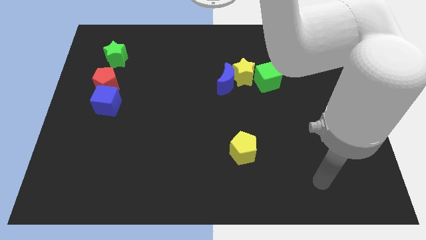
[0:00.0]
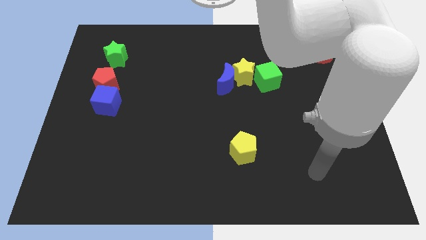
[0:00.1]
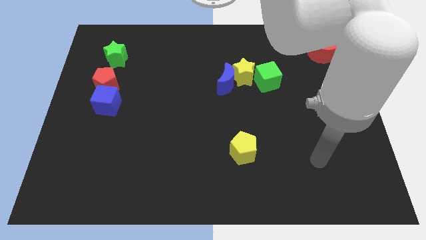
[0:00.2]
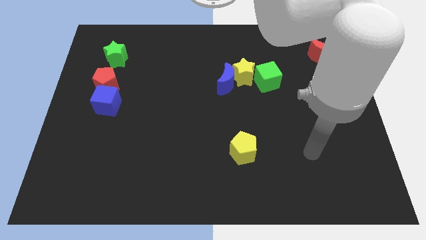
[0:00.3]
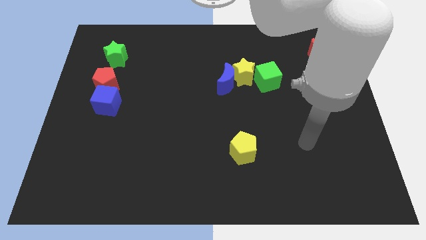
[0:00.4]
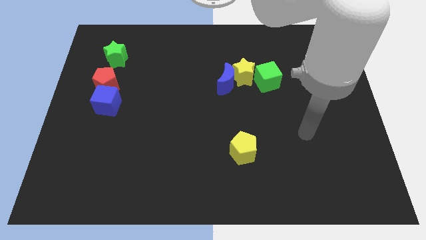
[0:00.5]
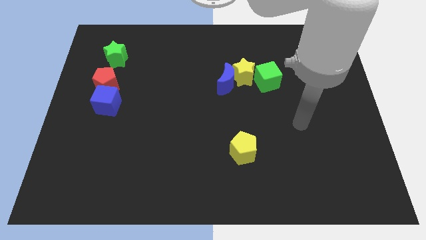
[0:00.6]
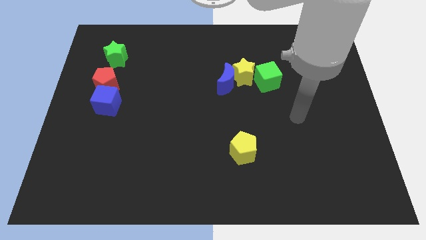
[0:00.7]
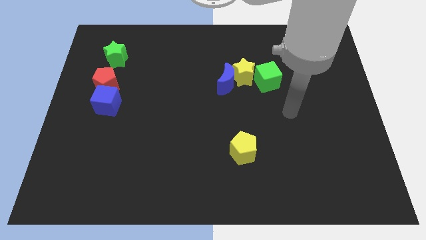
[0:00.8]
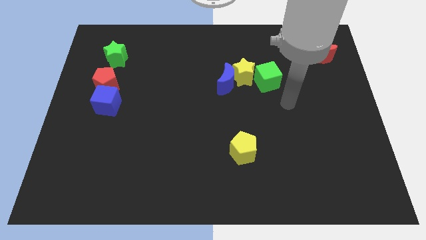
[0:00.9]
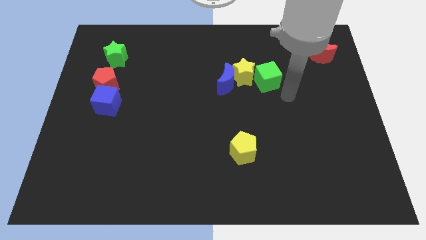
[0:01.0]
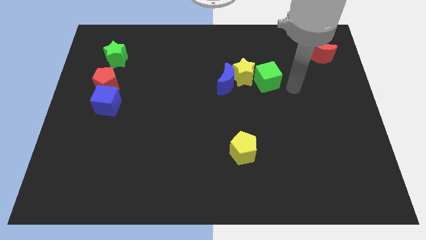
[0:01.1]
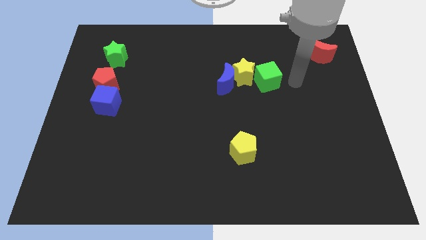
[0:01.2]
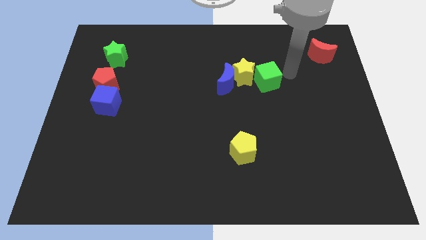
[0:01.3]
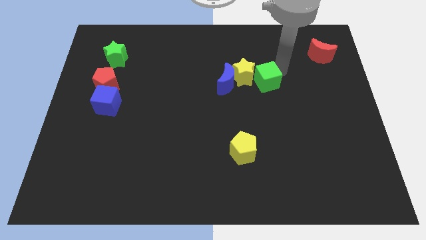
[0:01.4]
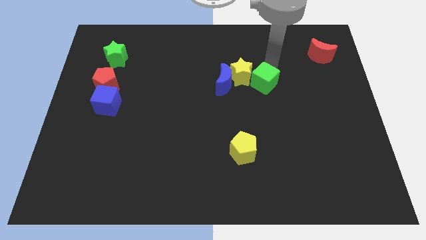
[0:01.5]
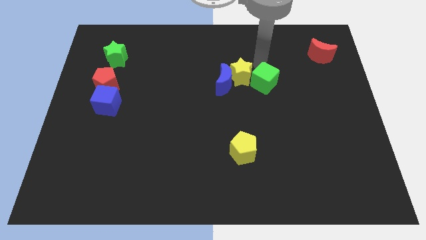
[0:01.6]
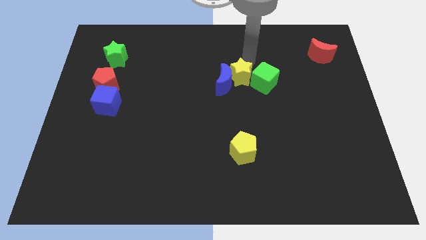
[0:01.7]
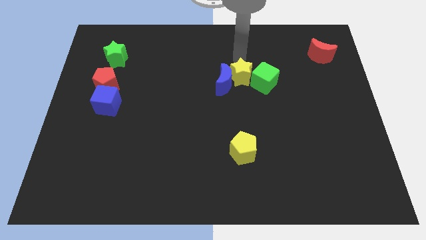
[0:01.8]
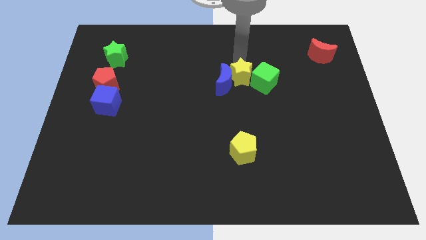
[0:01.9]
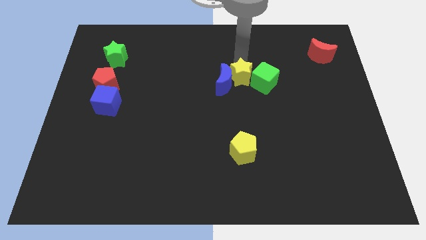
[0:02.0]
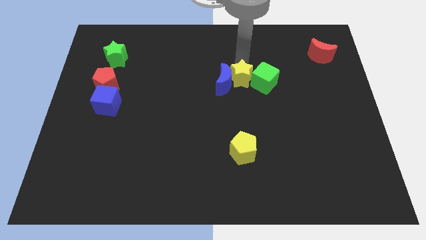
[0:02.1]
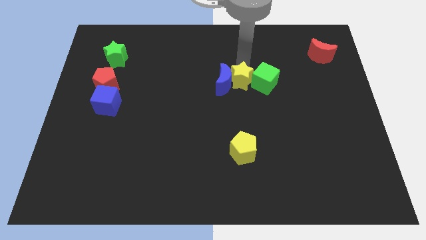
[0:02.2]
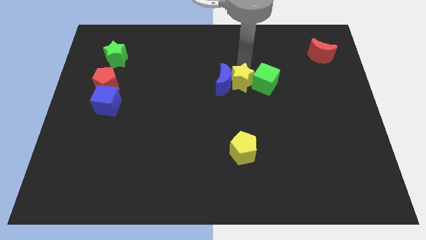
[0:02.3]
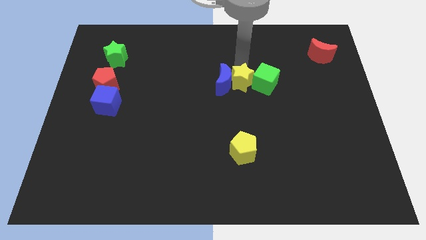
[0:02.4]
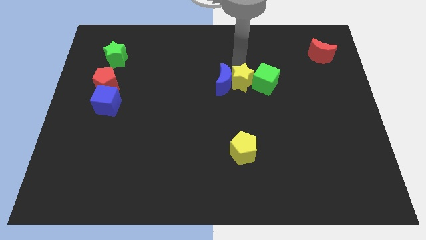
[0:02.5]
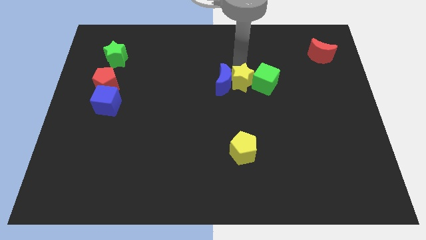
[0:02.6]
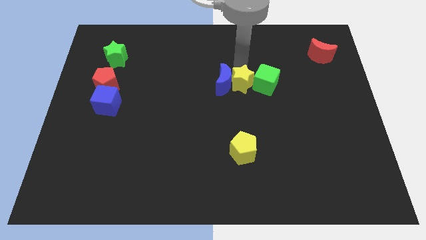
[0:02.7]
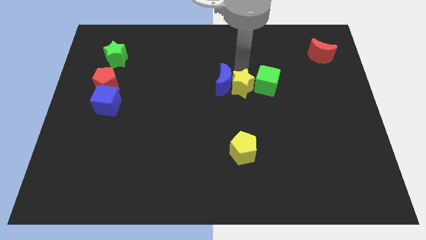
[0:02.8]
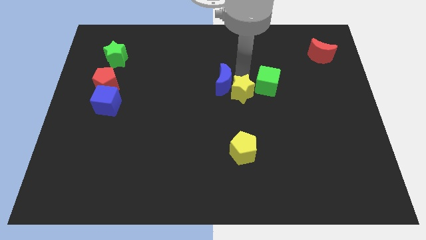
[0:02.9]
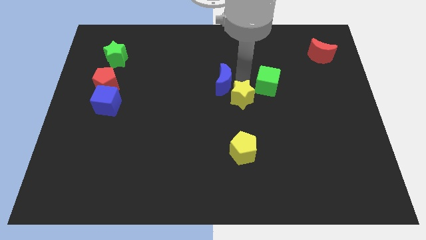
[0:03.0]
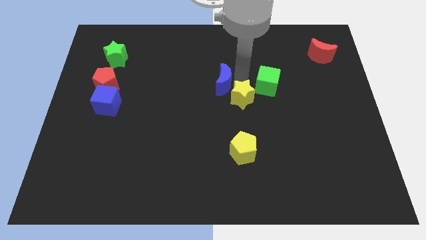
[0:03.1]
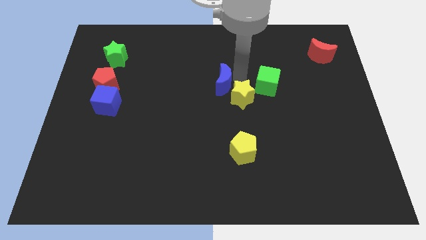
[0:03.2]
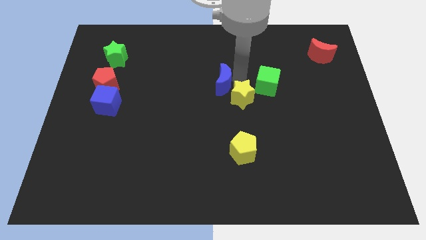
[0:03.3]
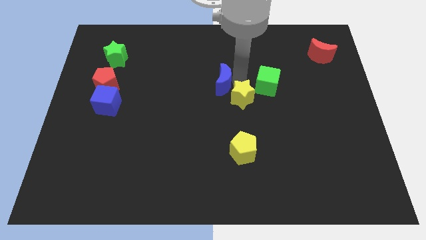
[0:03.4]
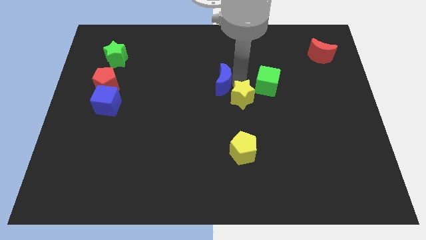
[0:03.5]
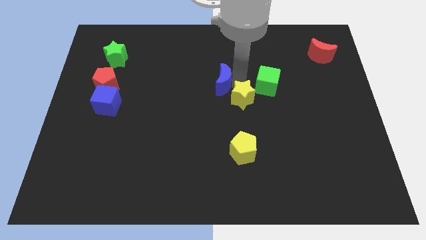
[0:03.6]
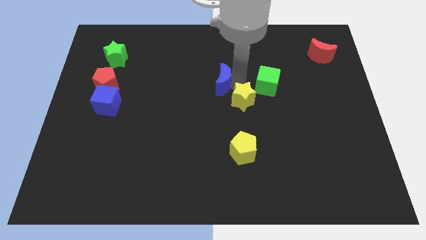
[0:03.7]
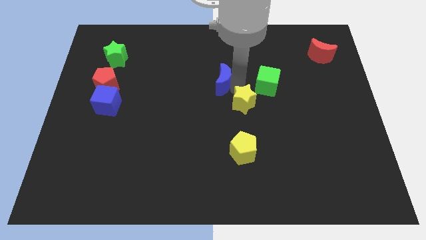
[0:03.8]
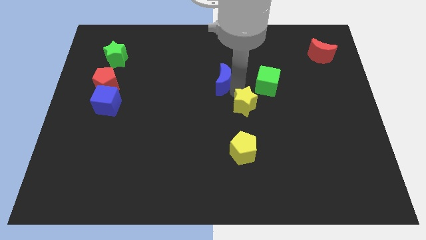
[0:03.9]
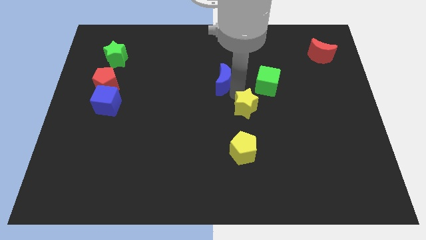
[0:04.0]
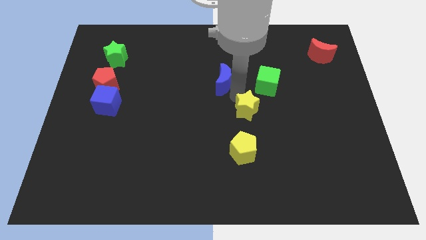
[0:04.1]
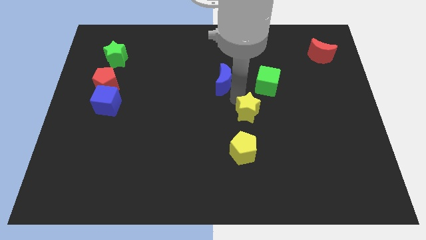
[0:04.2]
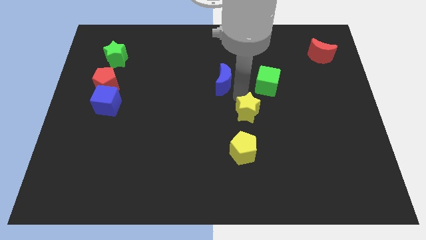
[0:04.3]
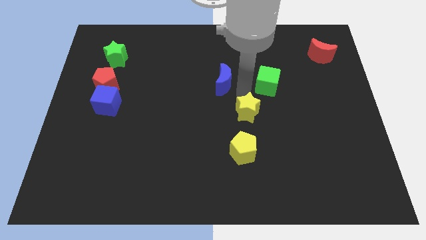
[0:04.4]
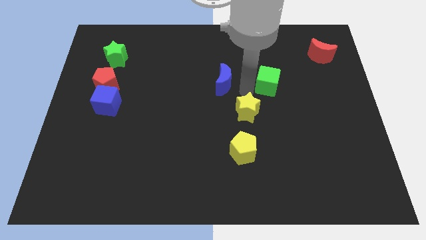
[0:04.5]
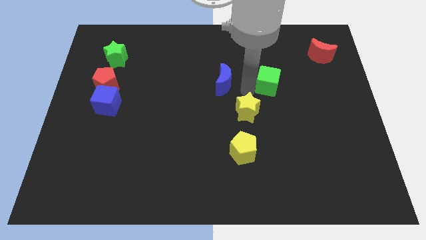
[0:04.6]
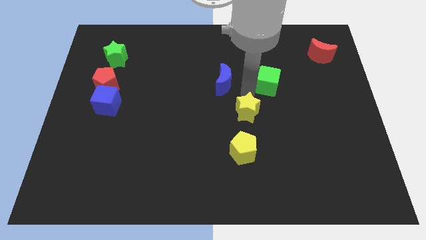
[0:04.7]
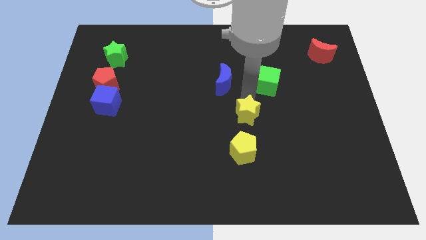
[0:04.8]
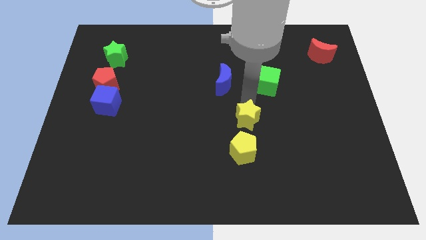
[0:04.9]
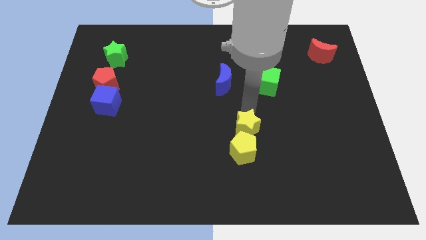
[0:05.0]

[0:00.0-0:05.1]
push the yellow star close to the yellow pentagon

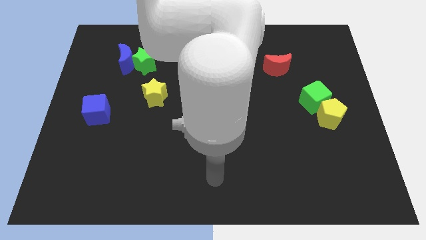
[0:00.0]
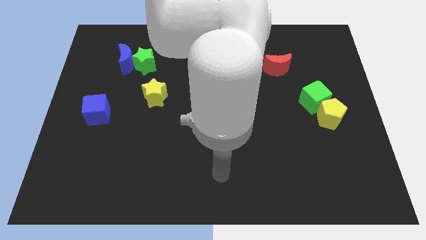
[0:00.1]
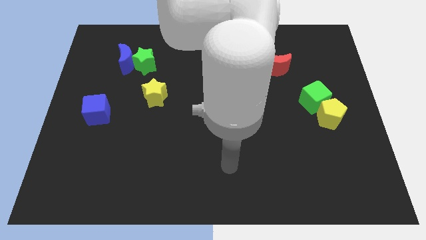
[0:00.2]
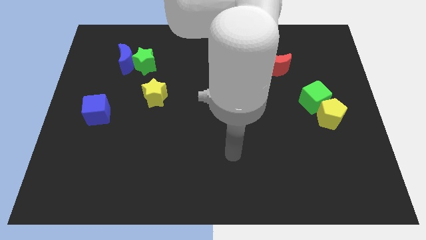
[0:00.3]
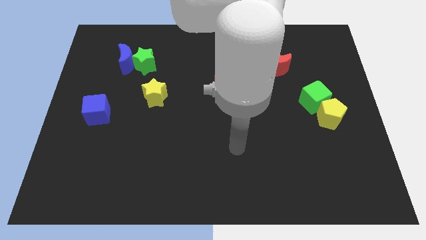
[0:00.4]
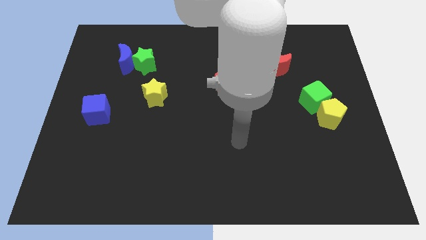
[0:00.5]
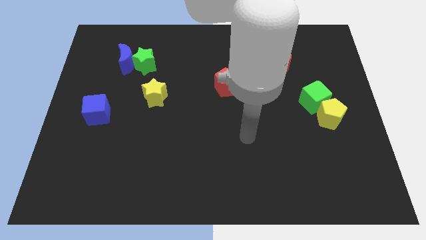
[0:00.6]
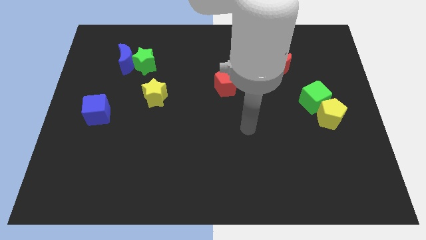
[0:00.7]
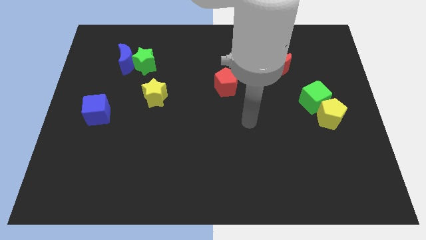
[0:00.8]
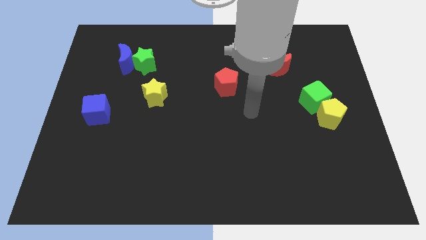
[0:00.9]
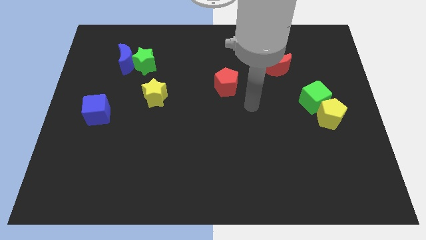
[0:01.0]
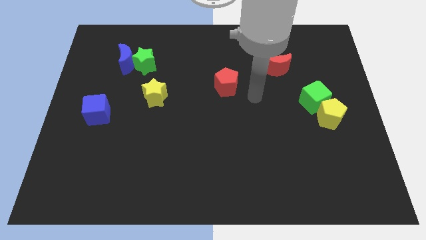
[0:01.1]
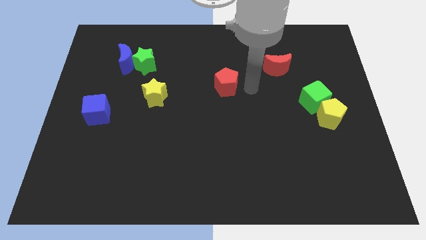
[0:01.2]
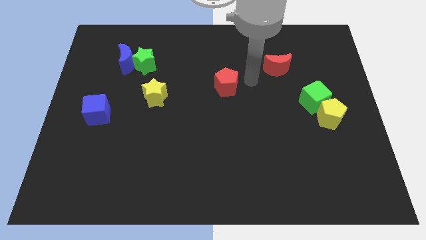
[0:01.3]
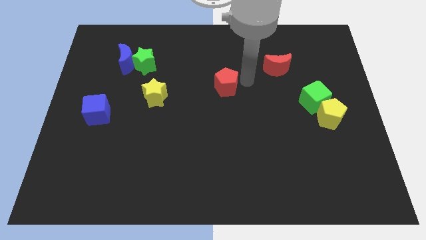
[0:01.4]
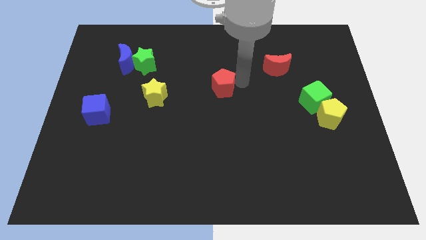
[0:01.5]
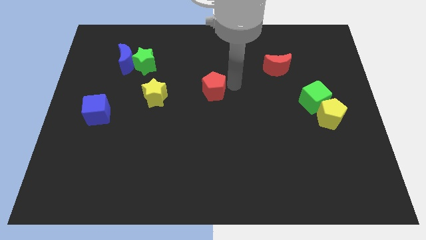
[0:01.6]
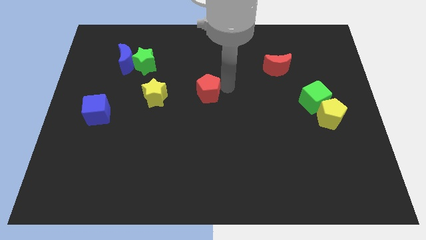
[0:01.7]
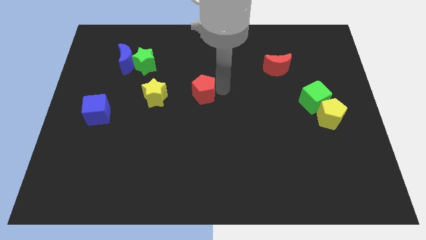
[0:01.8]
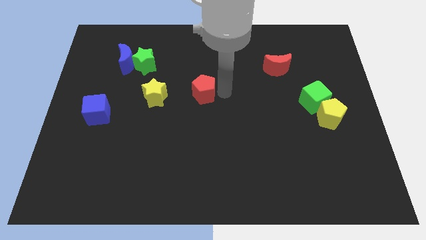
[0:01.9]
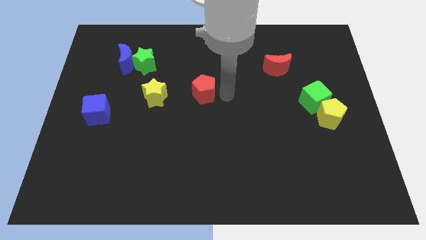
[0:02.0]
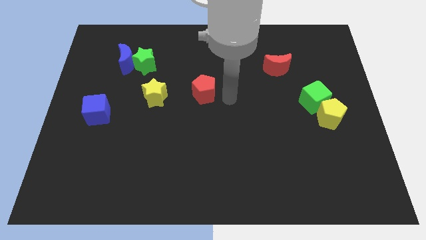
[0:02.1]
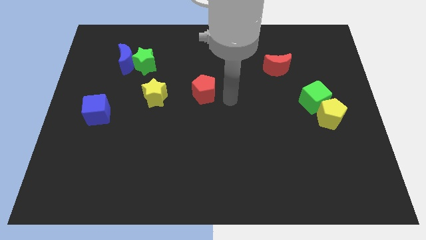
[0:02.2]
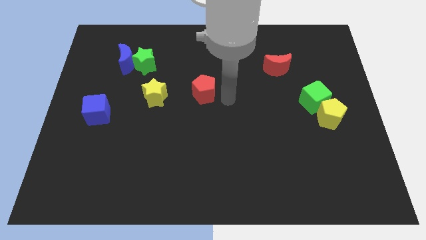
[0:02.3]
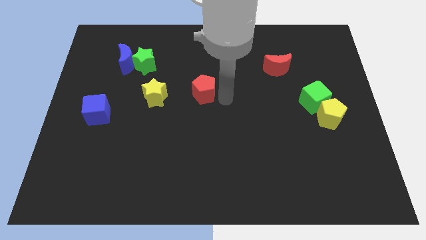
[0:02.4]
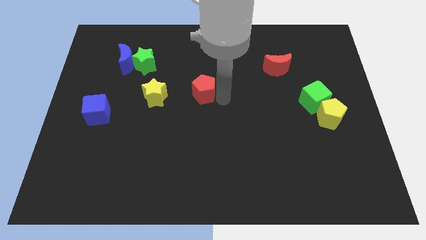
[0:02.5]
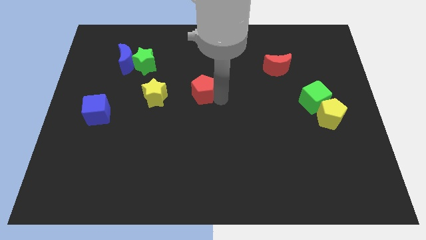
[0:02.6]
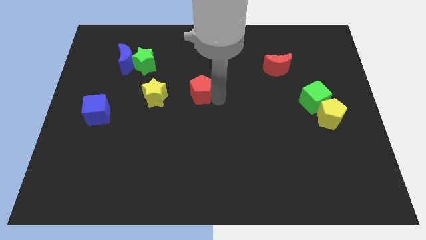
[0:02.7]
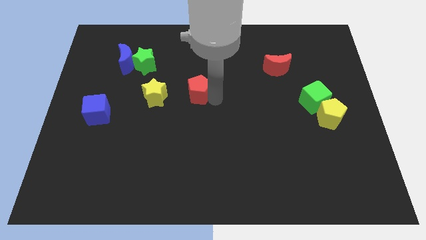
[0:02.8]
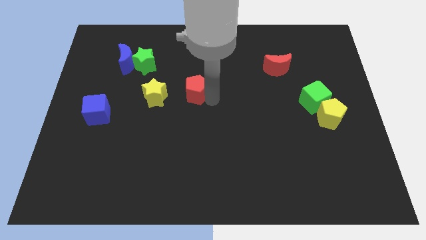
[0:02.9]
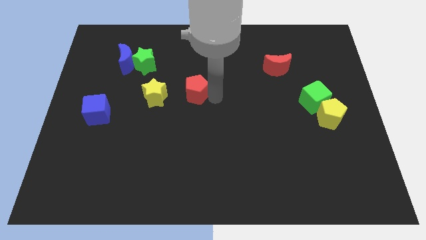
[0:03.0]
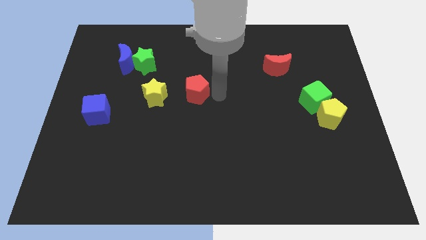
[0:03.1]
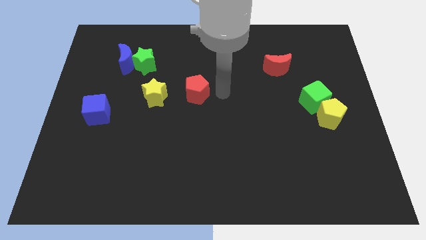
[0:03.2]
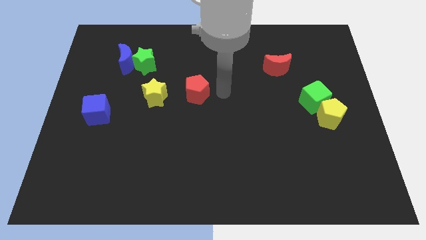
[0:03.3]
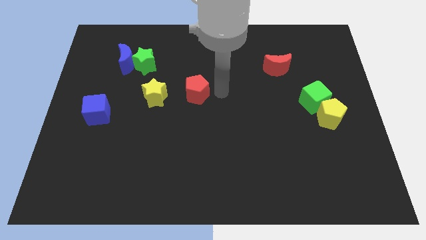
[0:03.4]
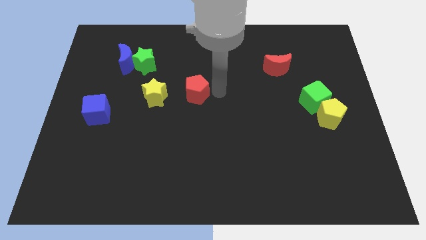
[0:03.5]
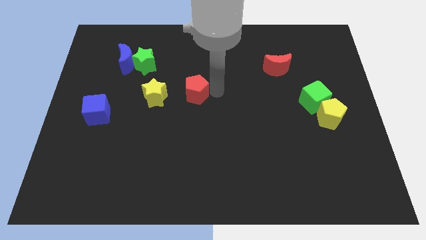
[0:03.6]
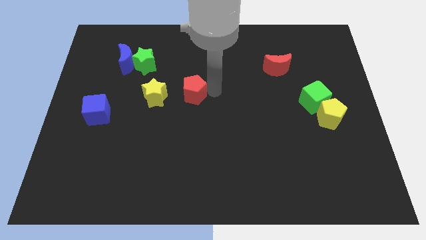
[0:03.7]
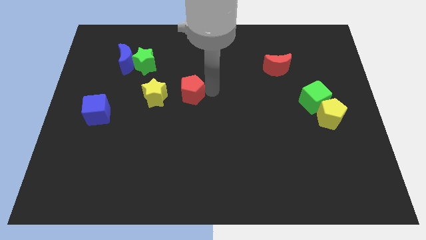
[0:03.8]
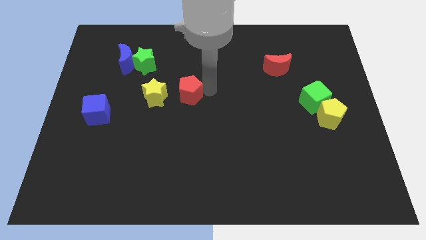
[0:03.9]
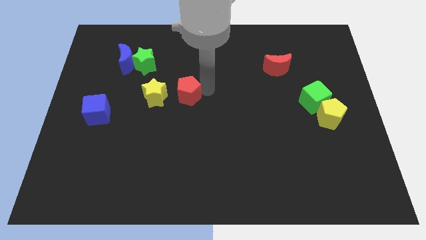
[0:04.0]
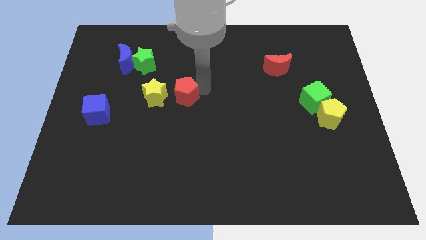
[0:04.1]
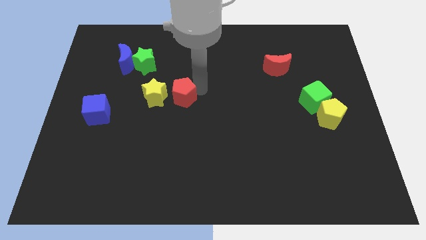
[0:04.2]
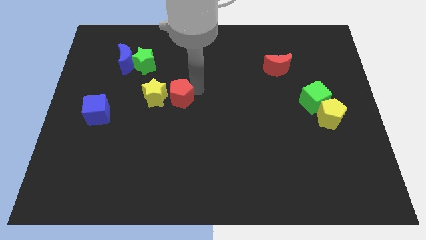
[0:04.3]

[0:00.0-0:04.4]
move the red pentagon to the yellow star
